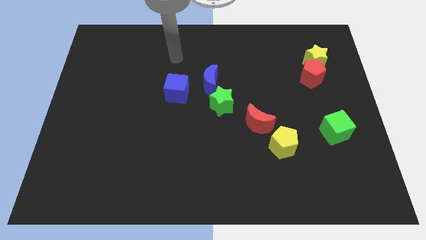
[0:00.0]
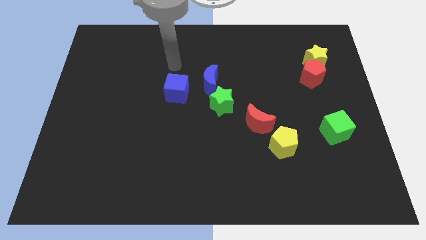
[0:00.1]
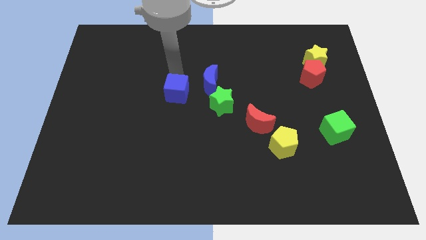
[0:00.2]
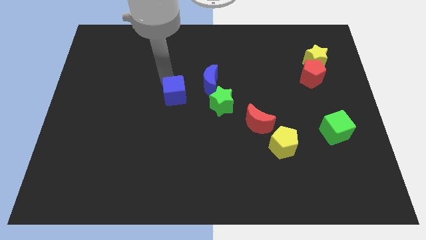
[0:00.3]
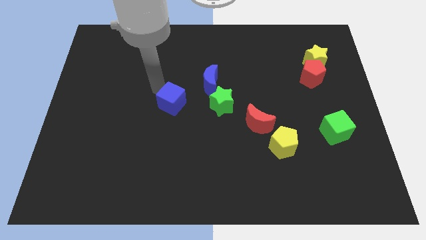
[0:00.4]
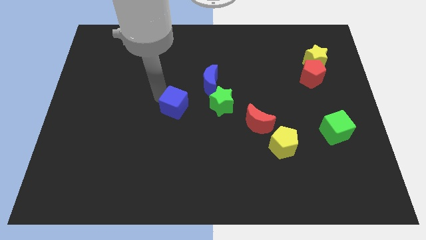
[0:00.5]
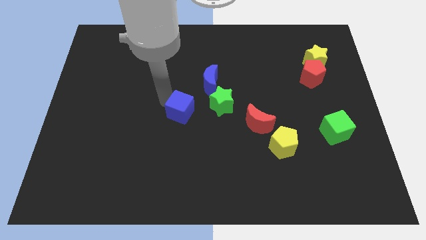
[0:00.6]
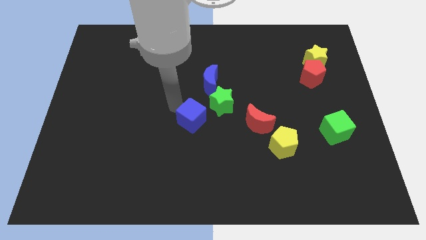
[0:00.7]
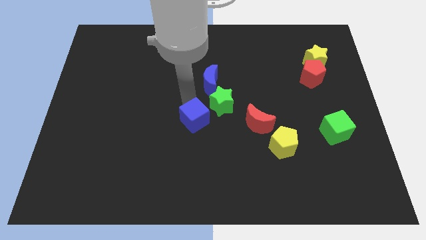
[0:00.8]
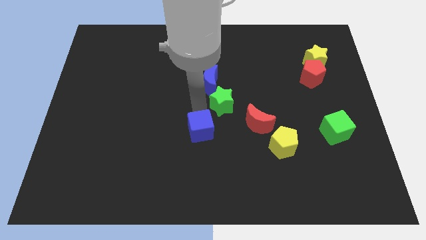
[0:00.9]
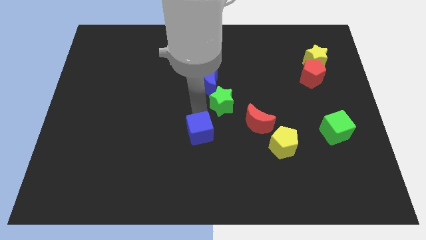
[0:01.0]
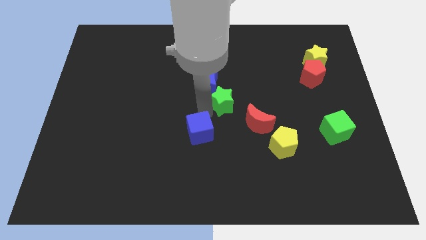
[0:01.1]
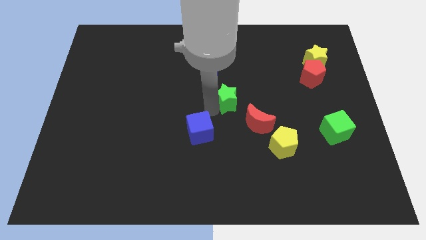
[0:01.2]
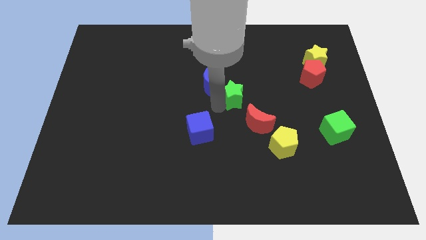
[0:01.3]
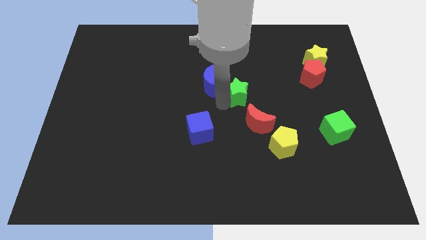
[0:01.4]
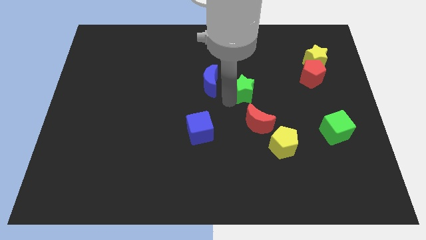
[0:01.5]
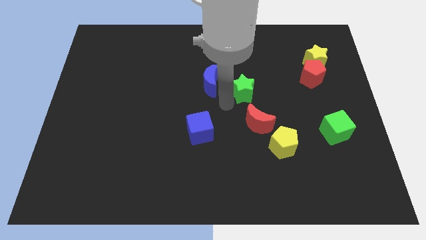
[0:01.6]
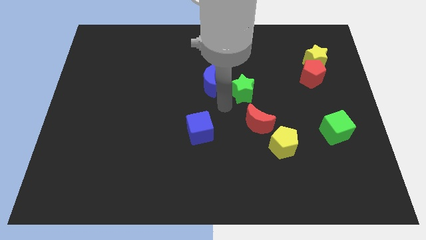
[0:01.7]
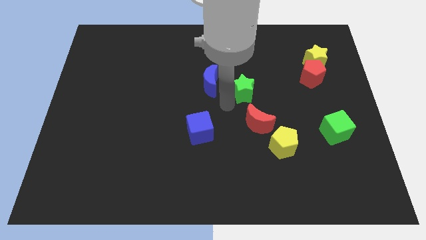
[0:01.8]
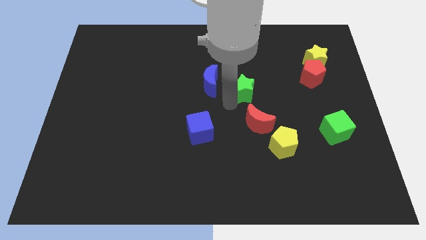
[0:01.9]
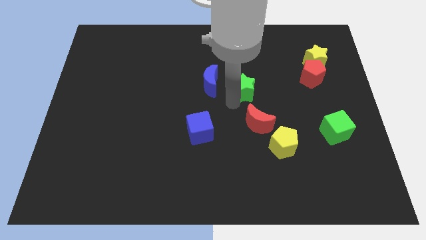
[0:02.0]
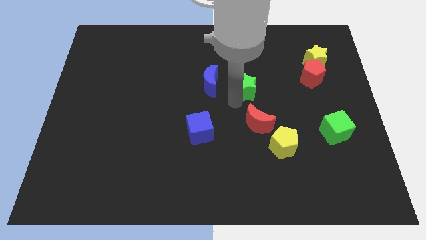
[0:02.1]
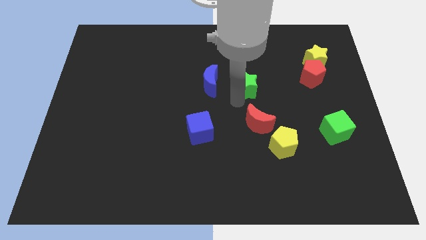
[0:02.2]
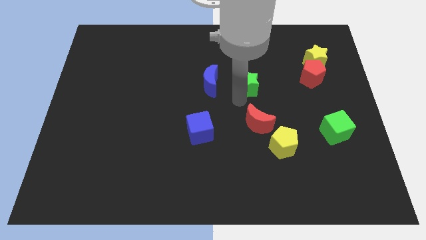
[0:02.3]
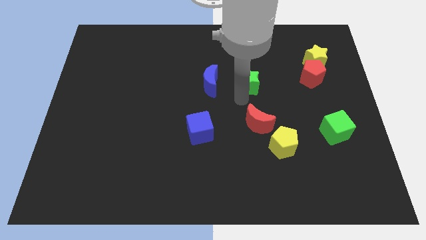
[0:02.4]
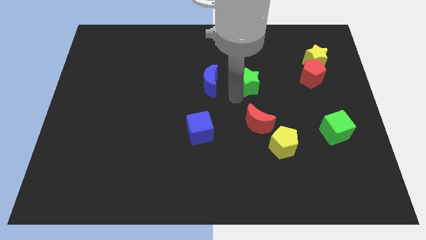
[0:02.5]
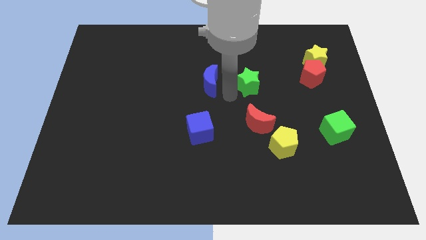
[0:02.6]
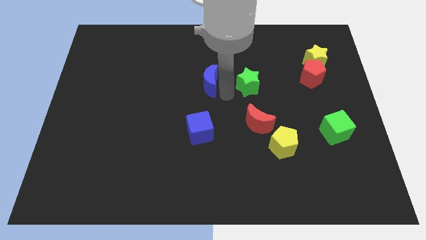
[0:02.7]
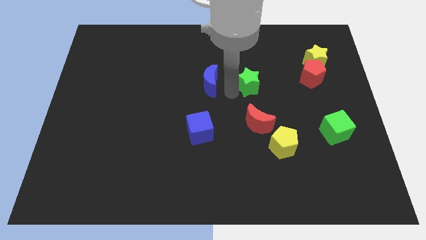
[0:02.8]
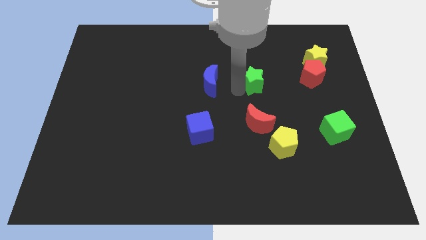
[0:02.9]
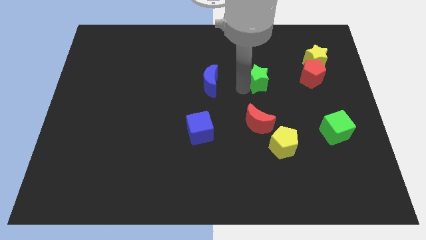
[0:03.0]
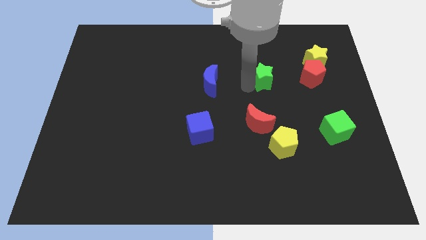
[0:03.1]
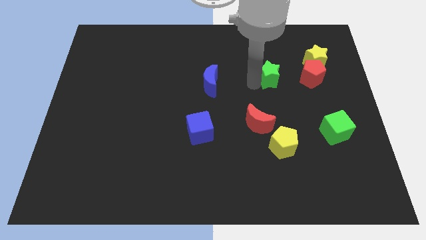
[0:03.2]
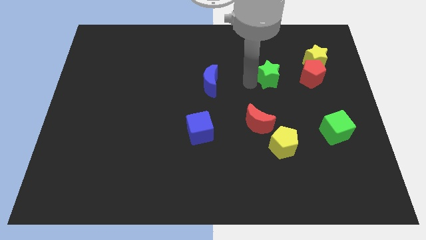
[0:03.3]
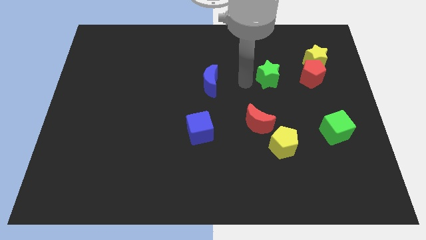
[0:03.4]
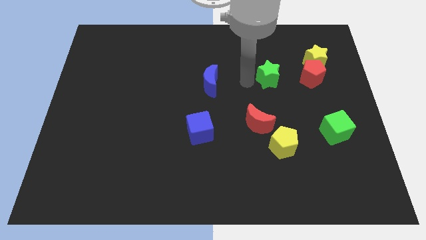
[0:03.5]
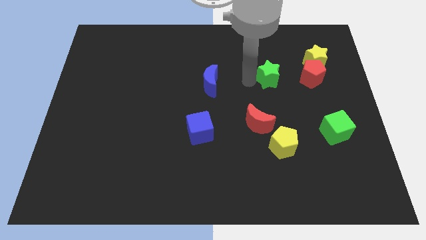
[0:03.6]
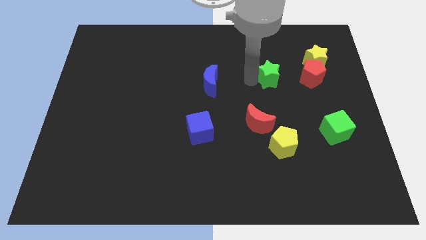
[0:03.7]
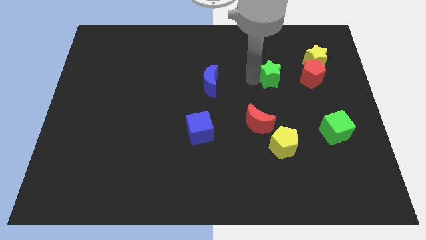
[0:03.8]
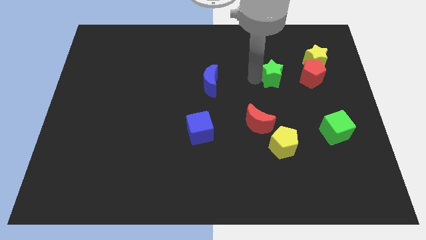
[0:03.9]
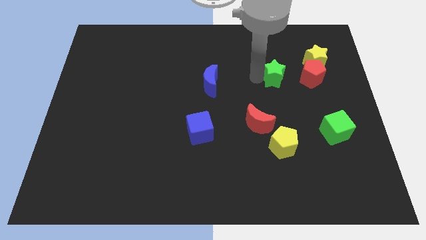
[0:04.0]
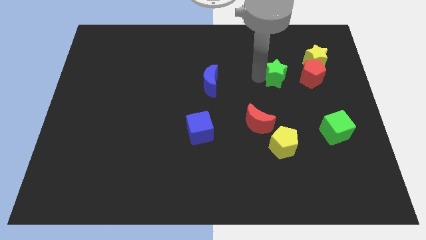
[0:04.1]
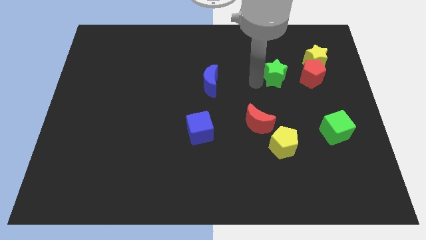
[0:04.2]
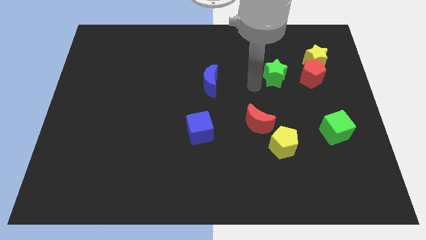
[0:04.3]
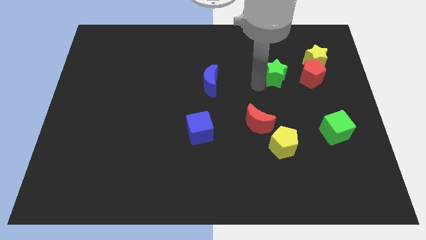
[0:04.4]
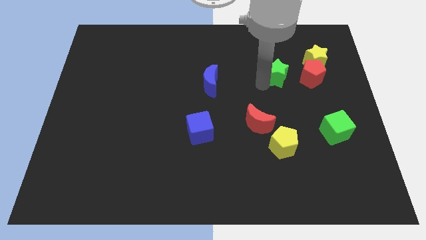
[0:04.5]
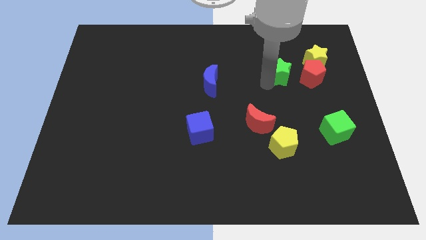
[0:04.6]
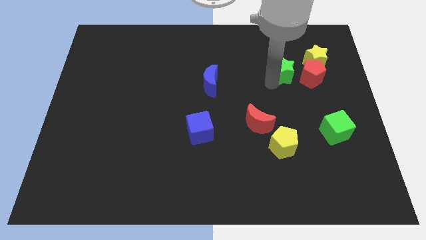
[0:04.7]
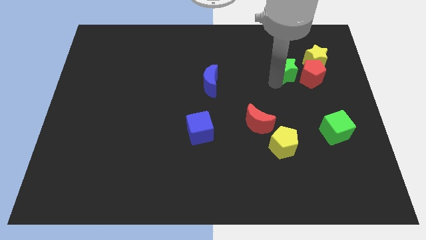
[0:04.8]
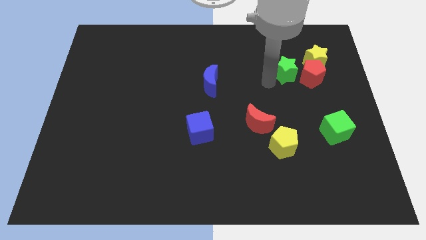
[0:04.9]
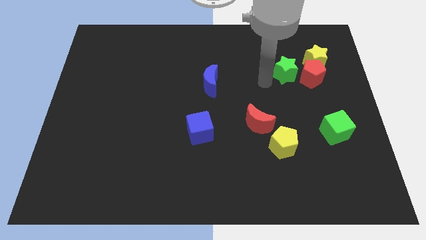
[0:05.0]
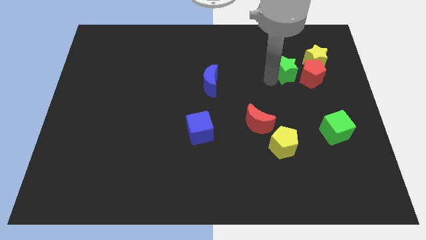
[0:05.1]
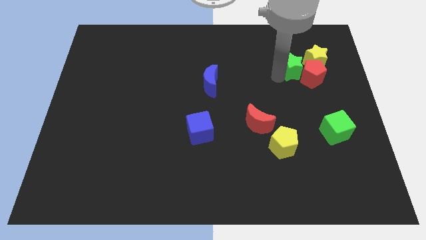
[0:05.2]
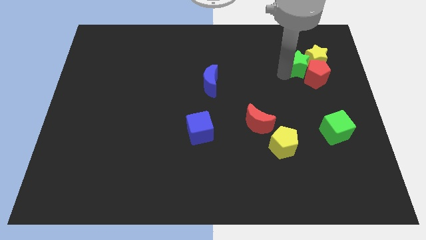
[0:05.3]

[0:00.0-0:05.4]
move the green star towards the yellow star

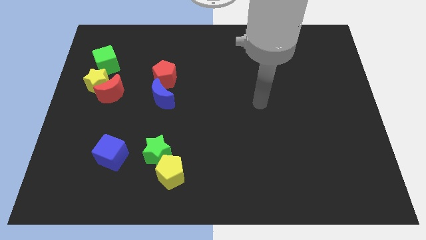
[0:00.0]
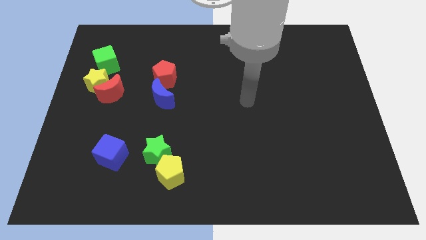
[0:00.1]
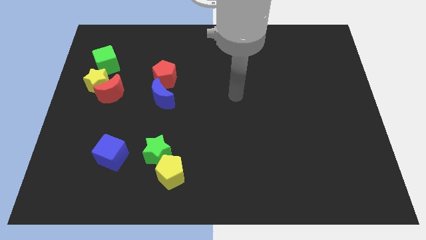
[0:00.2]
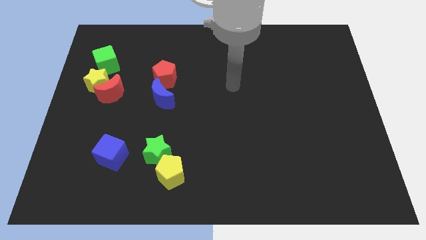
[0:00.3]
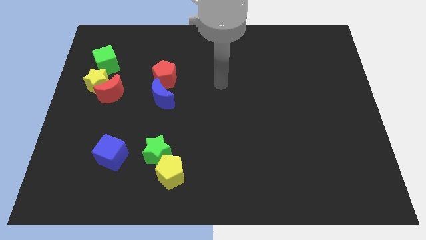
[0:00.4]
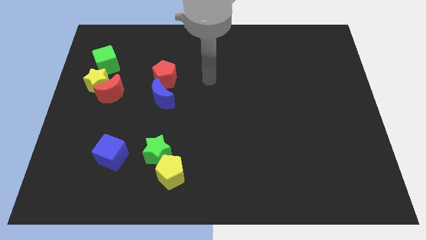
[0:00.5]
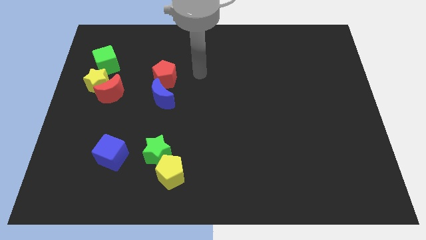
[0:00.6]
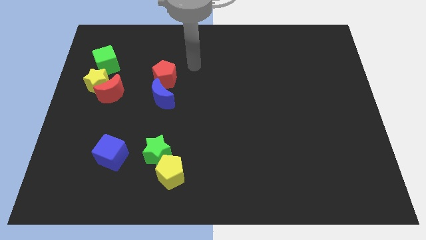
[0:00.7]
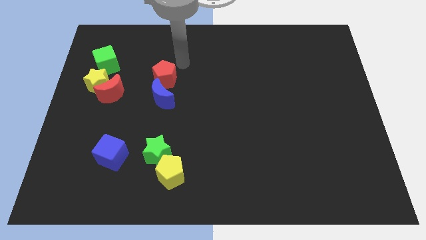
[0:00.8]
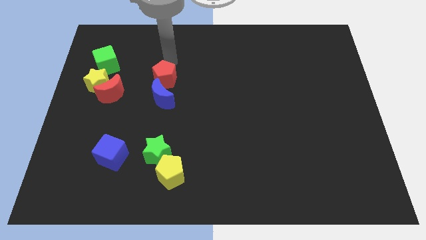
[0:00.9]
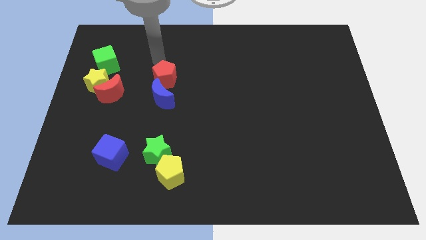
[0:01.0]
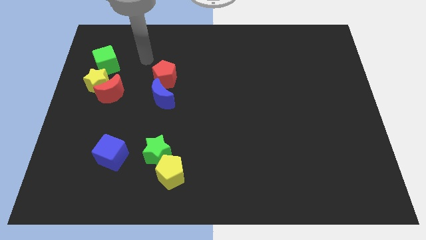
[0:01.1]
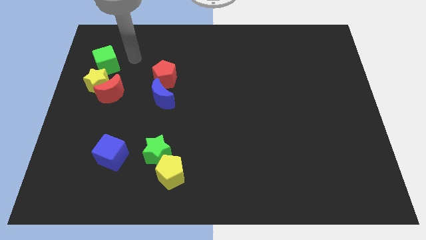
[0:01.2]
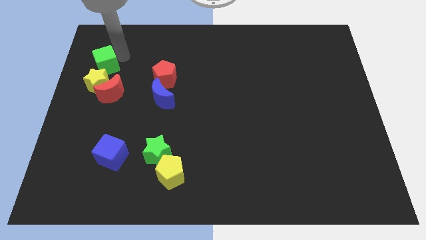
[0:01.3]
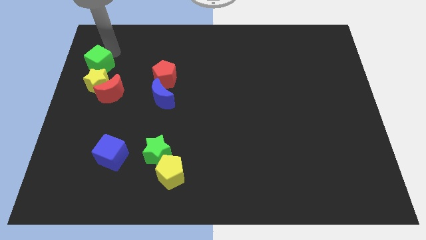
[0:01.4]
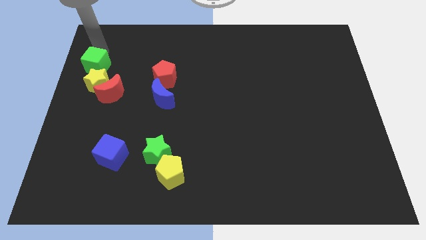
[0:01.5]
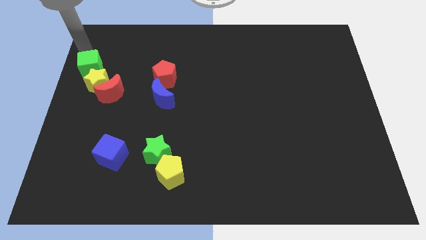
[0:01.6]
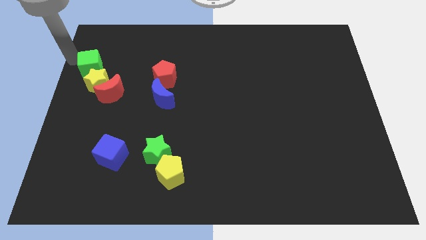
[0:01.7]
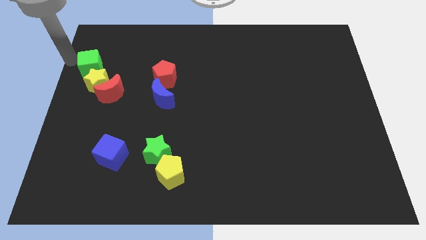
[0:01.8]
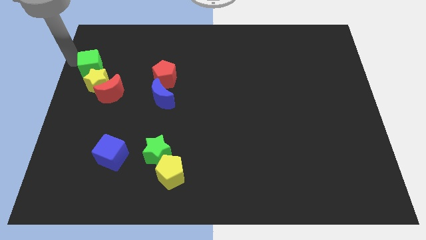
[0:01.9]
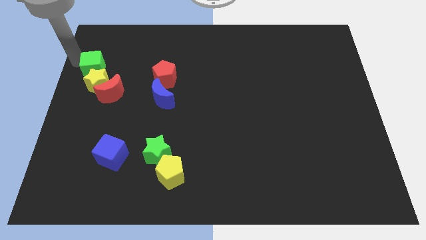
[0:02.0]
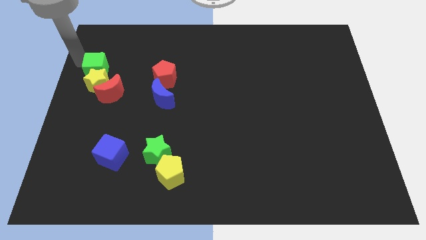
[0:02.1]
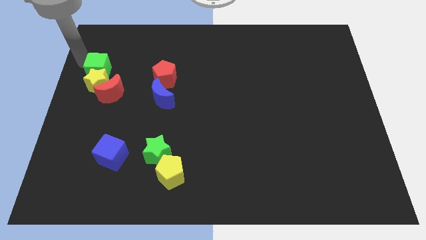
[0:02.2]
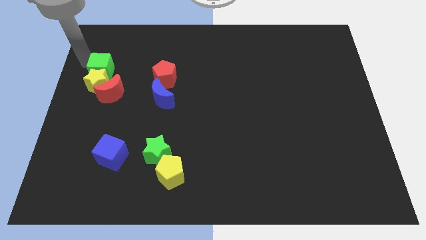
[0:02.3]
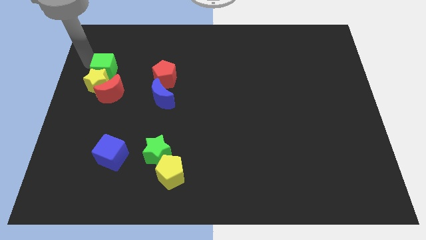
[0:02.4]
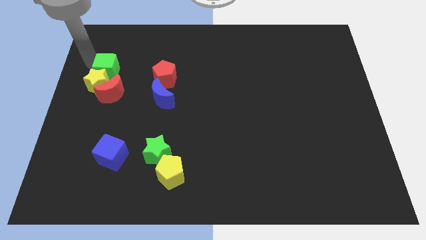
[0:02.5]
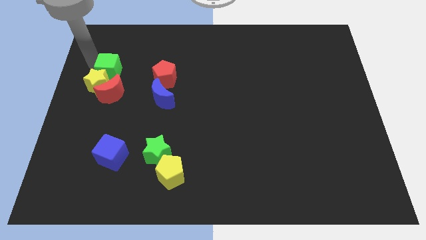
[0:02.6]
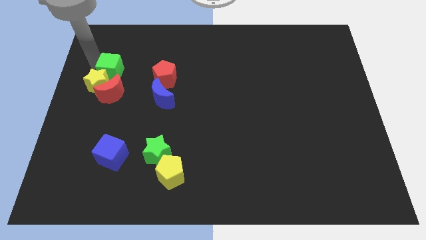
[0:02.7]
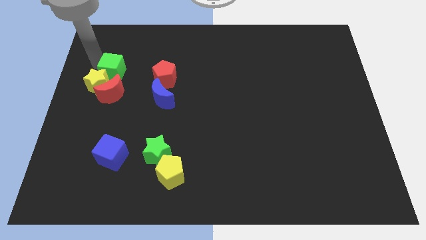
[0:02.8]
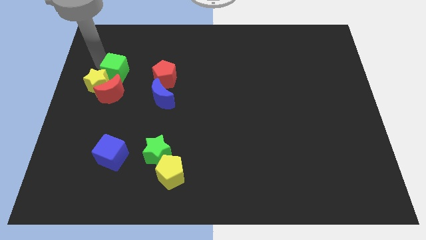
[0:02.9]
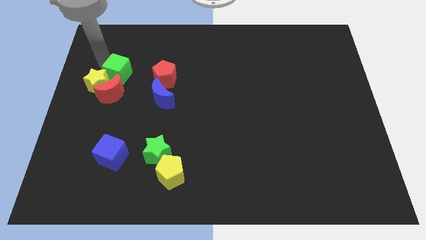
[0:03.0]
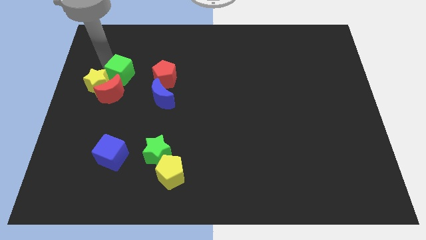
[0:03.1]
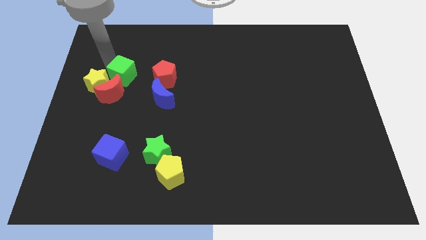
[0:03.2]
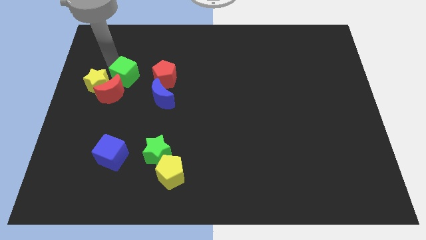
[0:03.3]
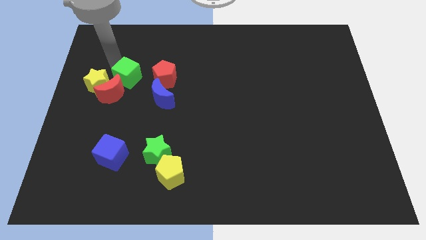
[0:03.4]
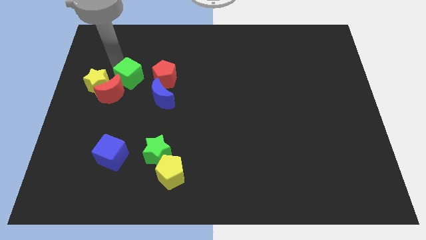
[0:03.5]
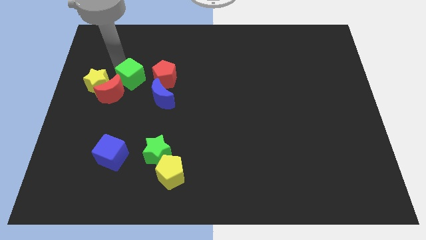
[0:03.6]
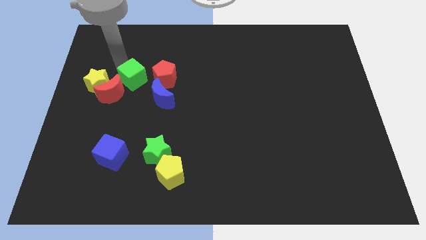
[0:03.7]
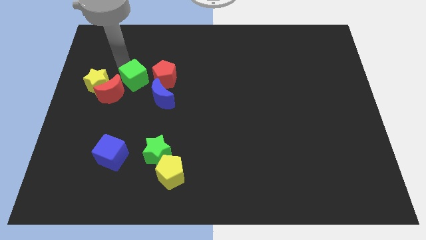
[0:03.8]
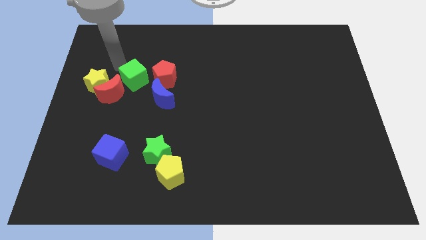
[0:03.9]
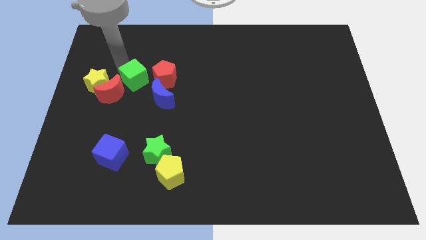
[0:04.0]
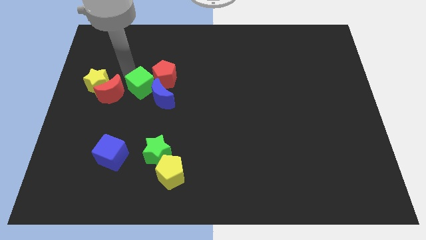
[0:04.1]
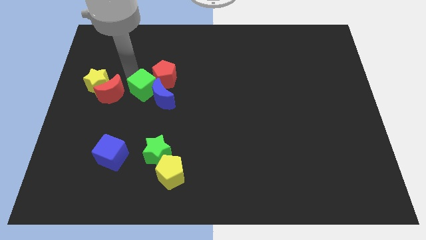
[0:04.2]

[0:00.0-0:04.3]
move the green cube to the blue moon
